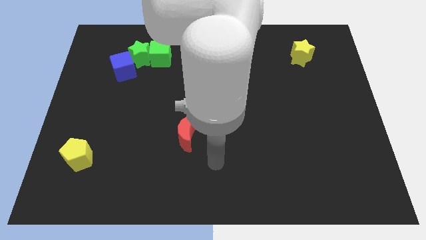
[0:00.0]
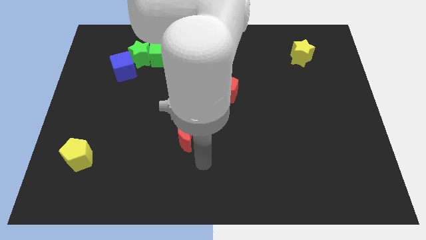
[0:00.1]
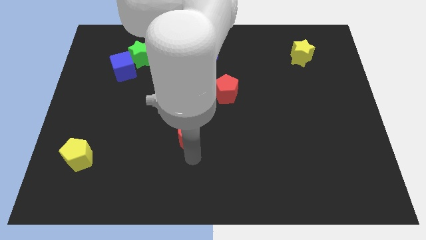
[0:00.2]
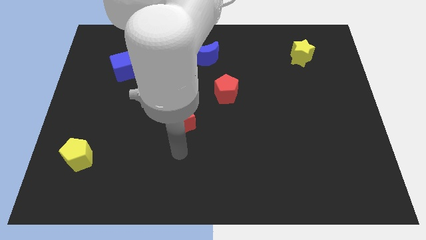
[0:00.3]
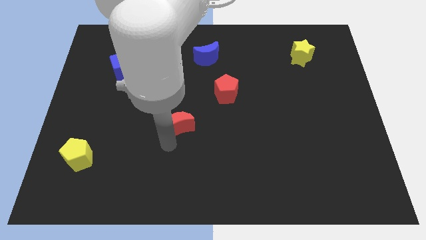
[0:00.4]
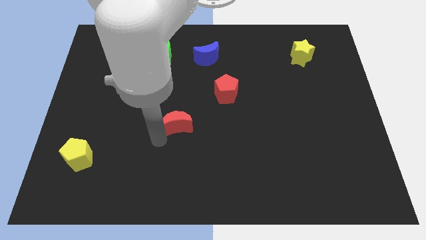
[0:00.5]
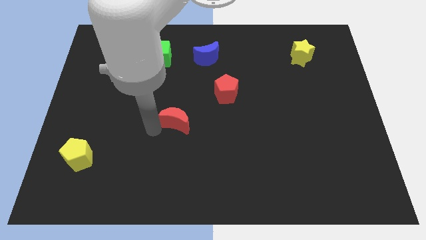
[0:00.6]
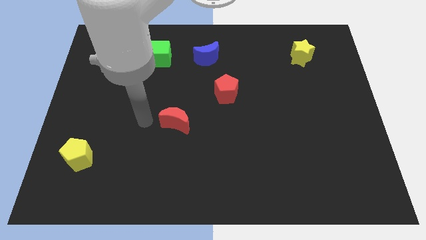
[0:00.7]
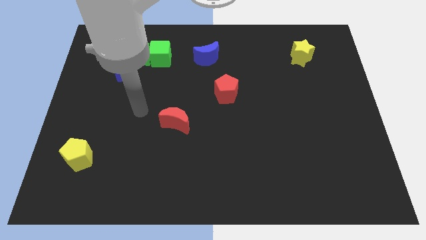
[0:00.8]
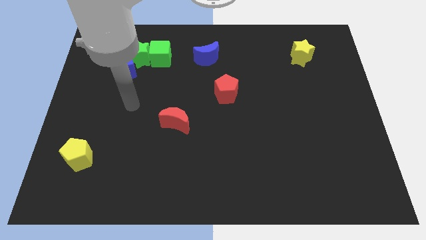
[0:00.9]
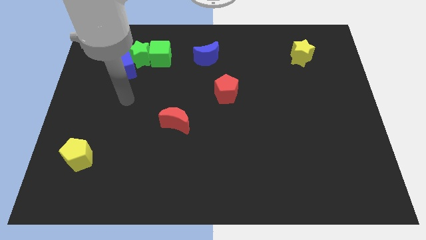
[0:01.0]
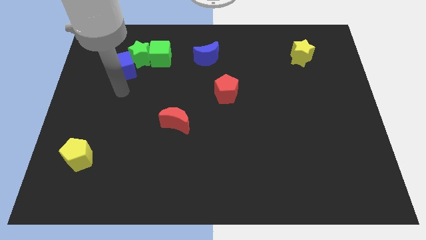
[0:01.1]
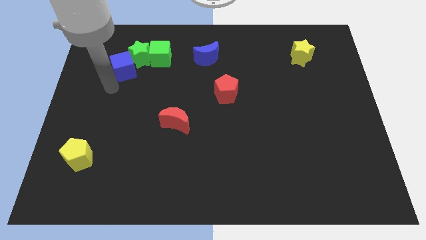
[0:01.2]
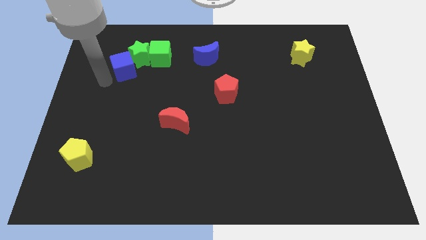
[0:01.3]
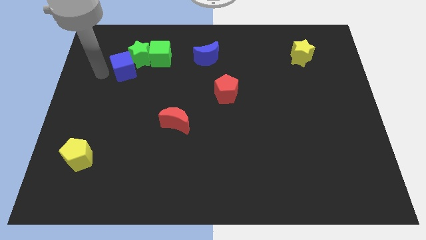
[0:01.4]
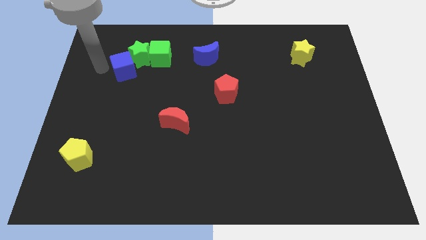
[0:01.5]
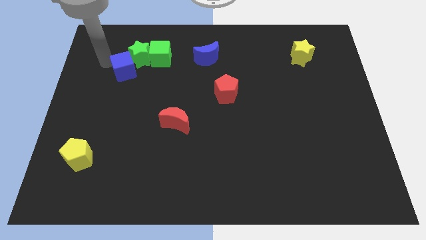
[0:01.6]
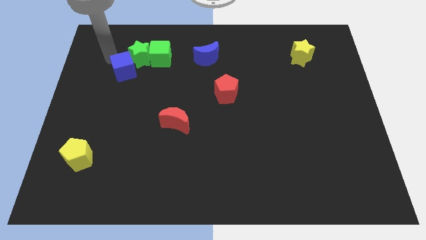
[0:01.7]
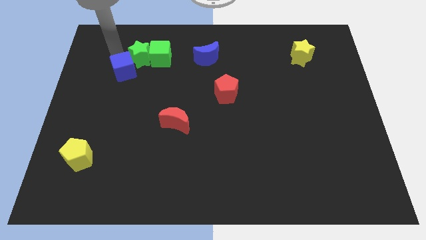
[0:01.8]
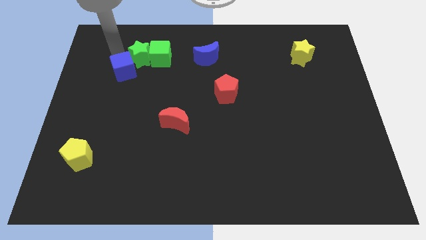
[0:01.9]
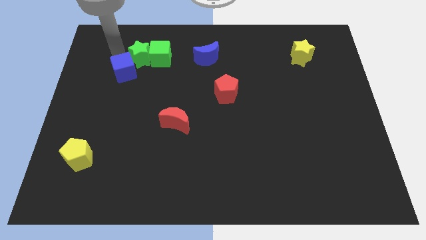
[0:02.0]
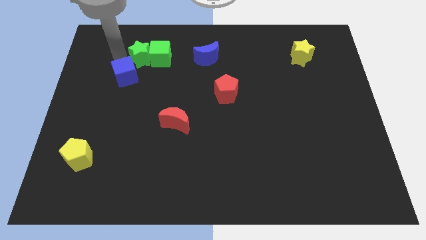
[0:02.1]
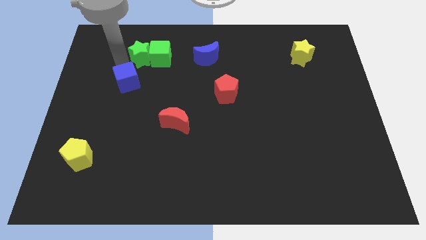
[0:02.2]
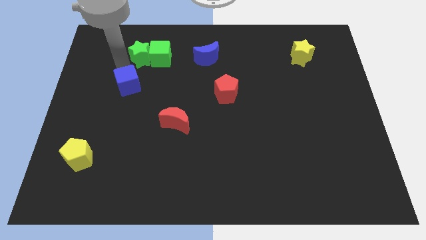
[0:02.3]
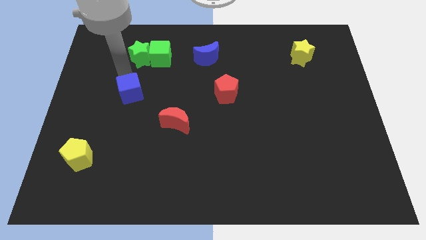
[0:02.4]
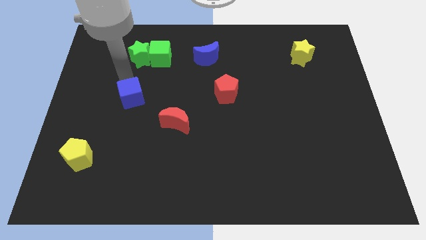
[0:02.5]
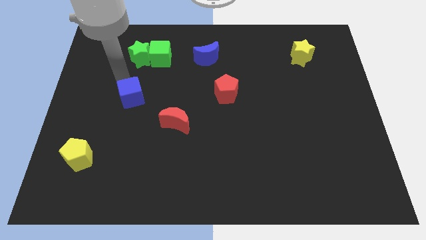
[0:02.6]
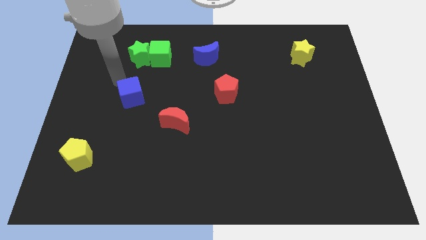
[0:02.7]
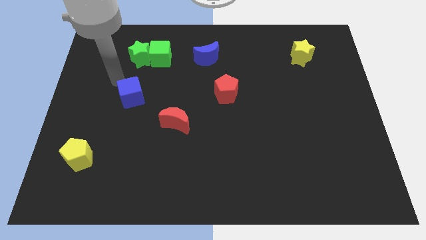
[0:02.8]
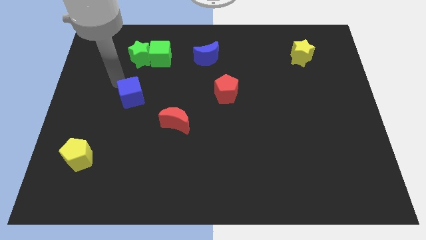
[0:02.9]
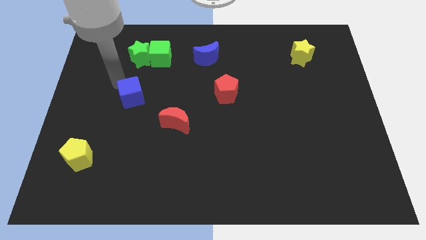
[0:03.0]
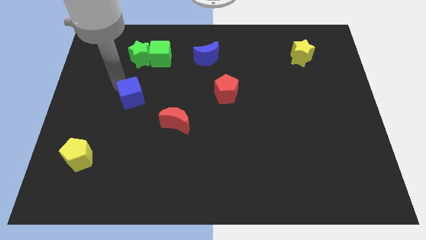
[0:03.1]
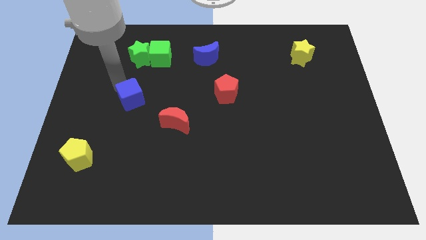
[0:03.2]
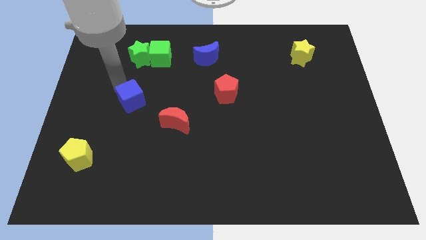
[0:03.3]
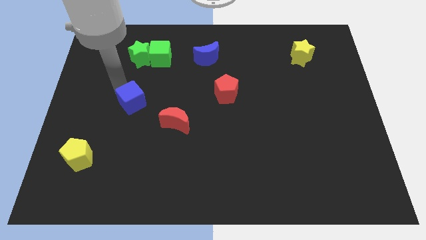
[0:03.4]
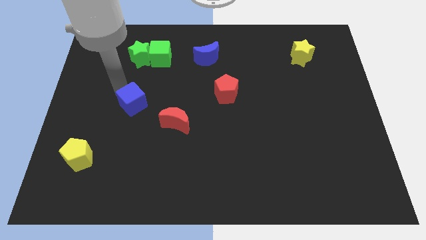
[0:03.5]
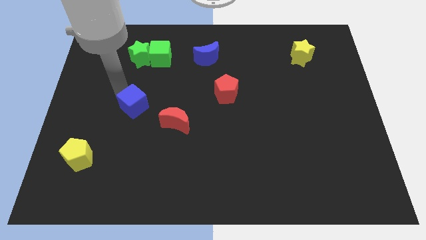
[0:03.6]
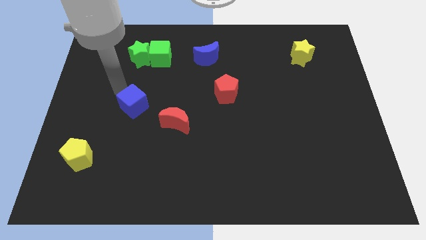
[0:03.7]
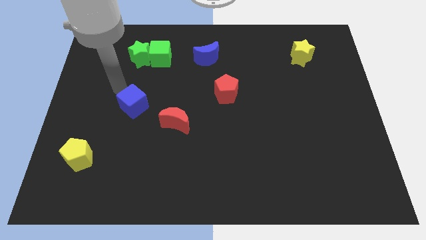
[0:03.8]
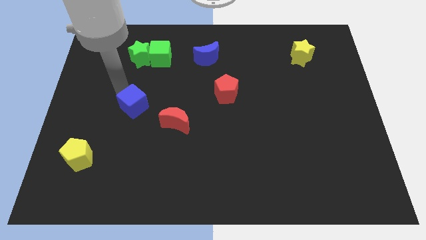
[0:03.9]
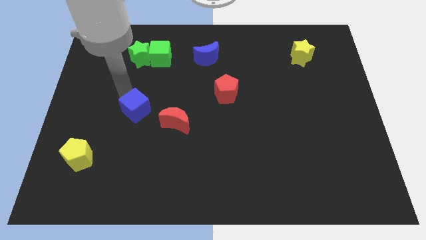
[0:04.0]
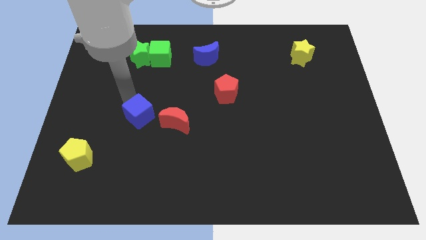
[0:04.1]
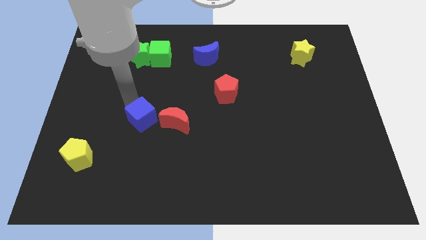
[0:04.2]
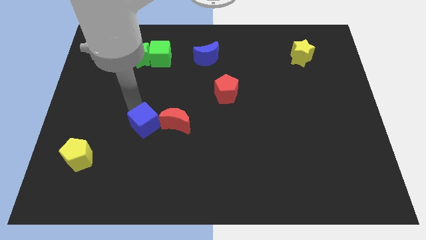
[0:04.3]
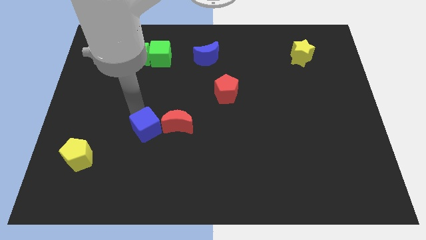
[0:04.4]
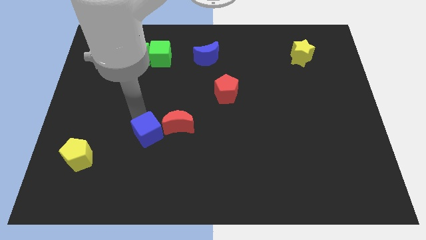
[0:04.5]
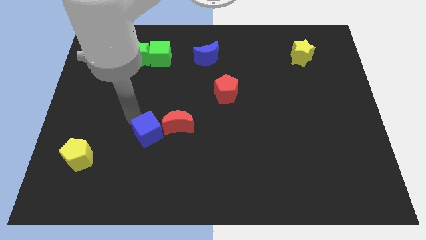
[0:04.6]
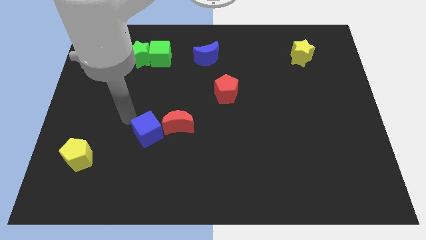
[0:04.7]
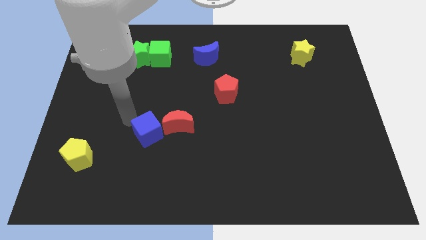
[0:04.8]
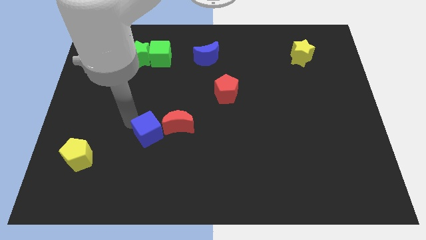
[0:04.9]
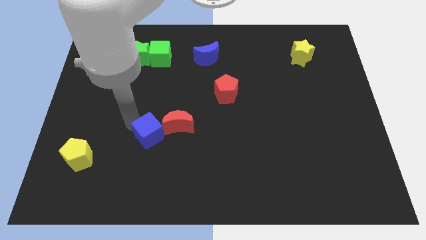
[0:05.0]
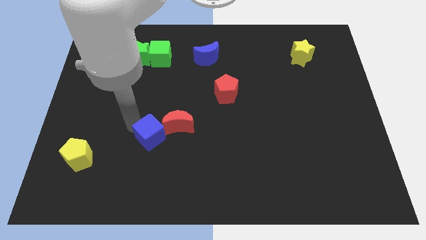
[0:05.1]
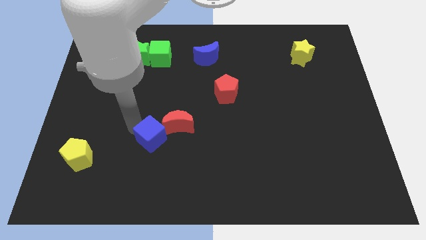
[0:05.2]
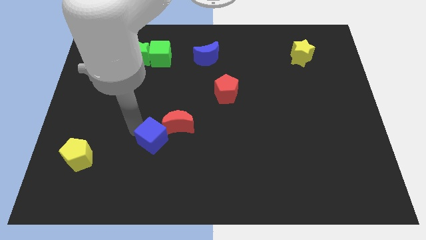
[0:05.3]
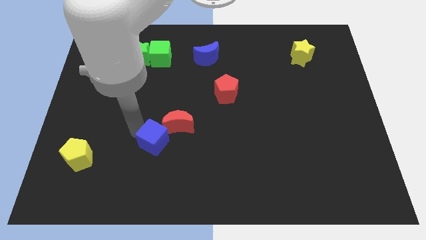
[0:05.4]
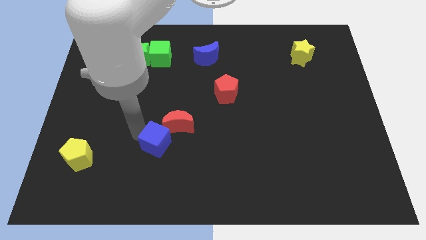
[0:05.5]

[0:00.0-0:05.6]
push the blue cube below the red moon

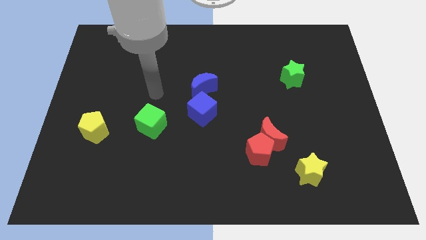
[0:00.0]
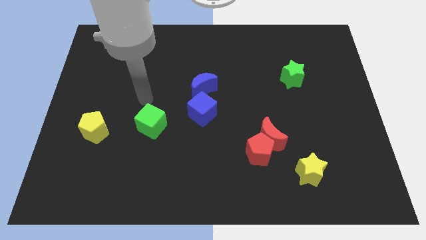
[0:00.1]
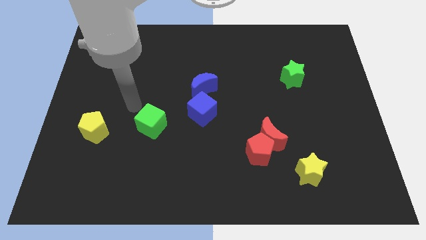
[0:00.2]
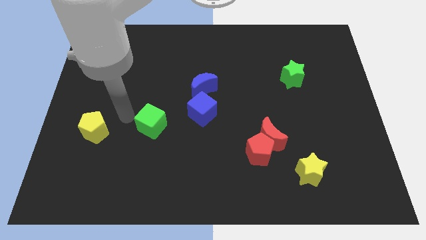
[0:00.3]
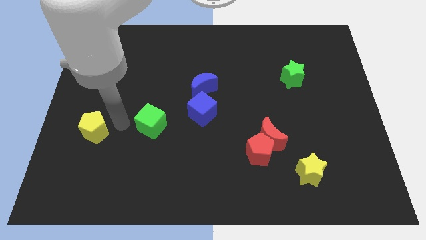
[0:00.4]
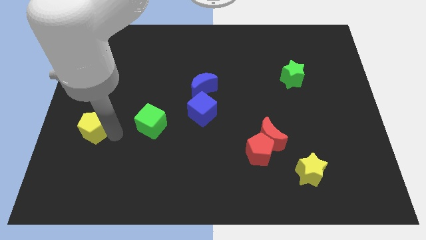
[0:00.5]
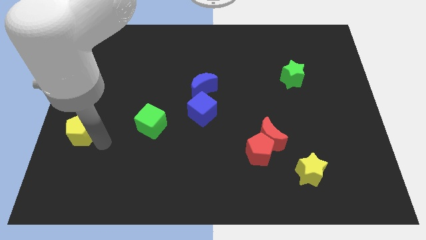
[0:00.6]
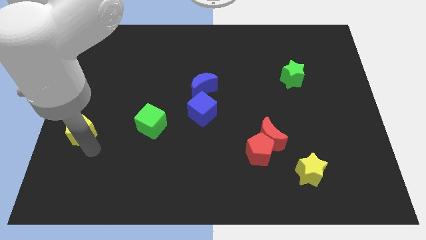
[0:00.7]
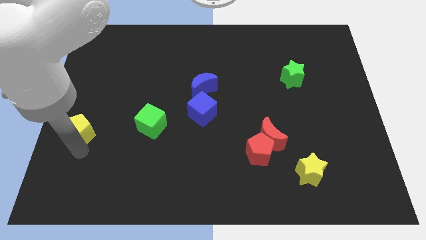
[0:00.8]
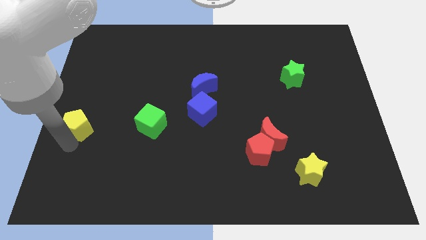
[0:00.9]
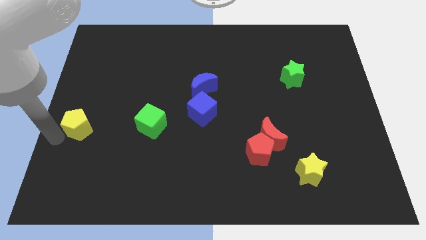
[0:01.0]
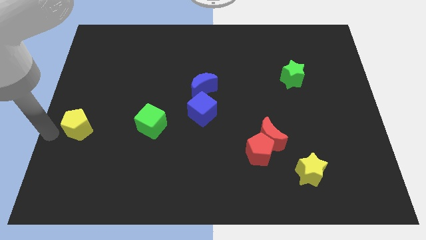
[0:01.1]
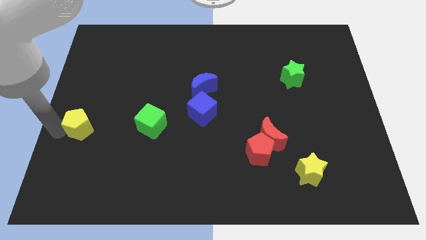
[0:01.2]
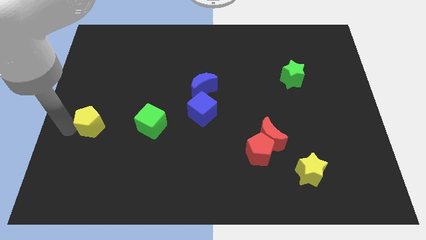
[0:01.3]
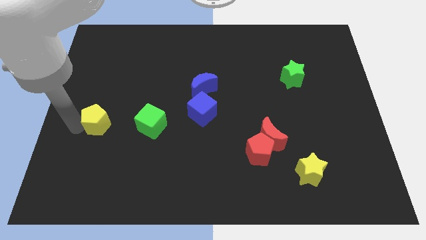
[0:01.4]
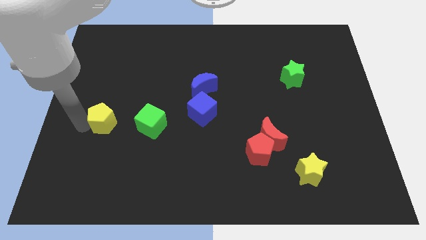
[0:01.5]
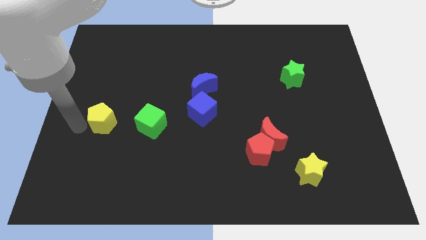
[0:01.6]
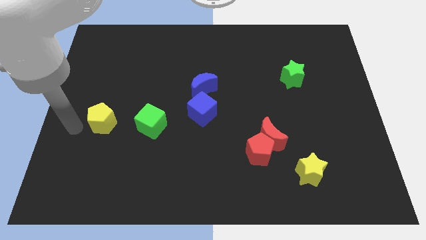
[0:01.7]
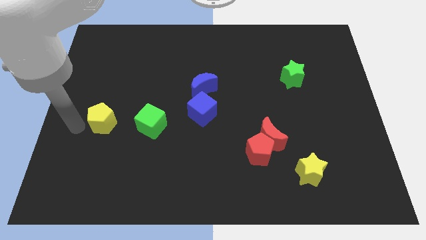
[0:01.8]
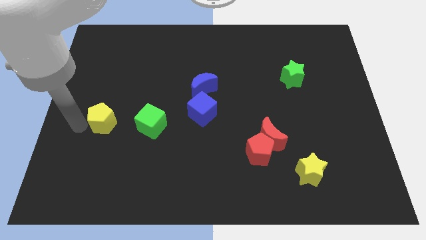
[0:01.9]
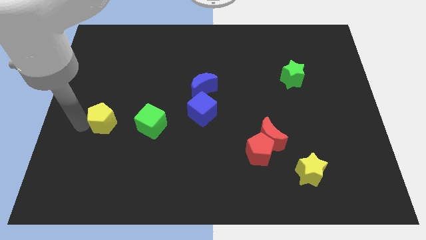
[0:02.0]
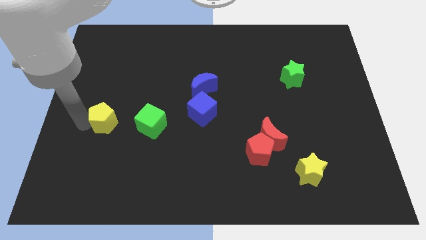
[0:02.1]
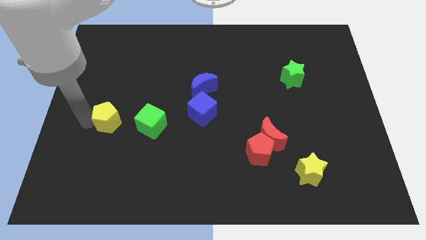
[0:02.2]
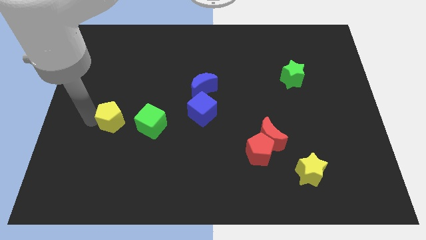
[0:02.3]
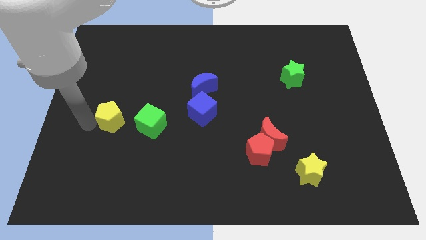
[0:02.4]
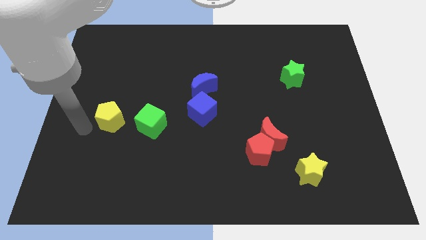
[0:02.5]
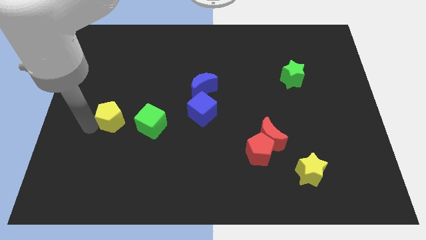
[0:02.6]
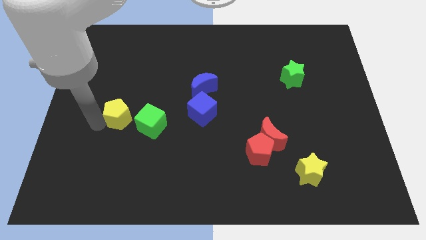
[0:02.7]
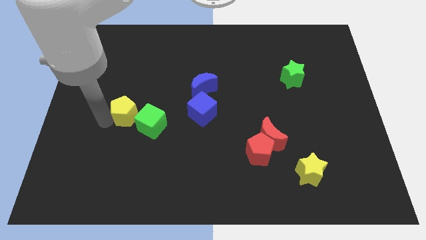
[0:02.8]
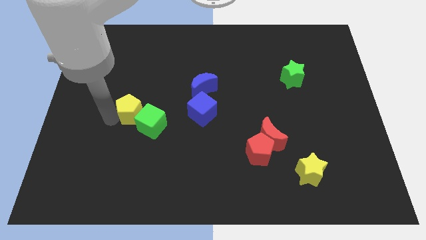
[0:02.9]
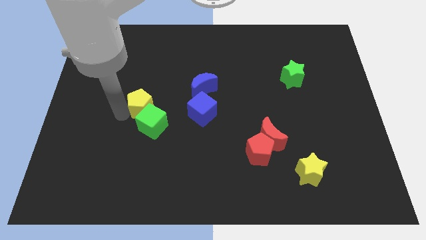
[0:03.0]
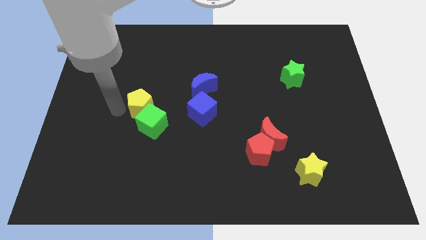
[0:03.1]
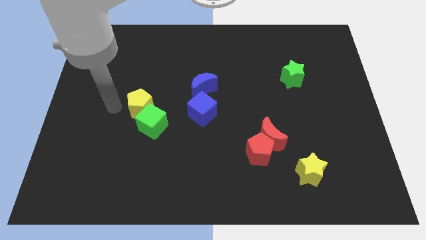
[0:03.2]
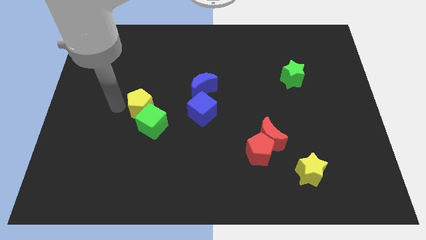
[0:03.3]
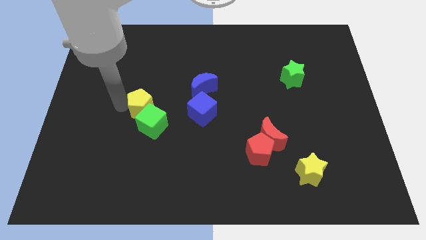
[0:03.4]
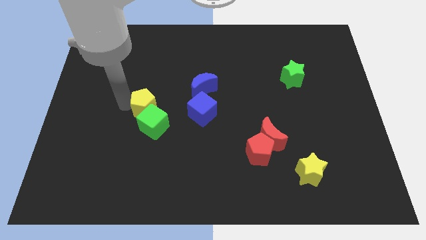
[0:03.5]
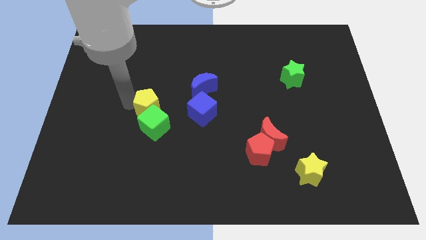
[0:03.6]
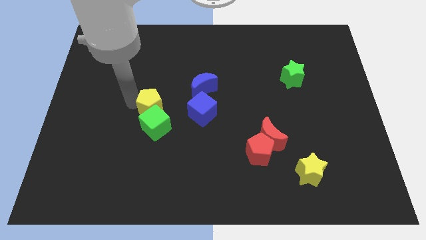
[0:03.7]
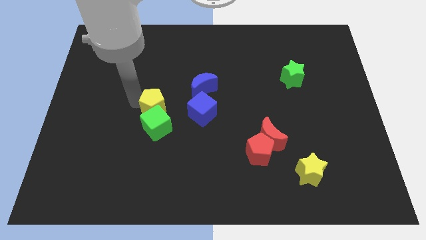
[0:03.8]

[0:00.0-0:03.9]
slide the yellow pentagon diagonally up and to the right of the green cube
